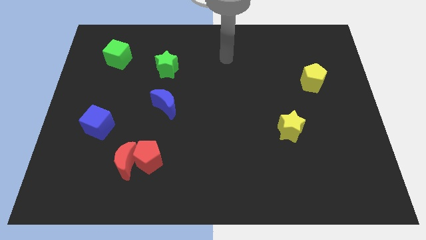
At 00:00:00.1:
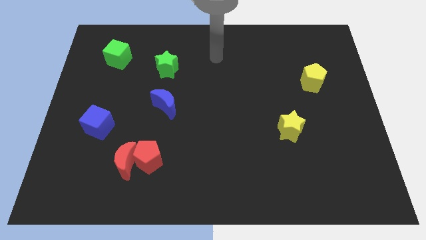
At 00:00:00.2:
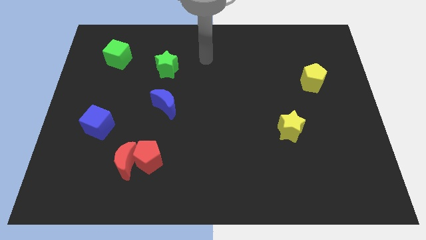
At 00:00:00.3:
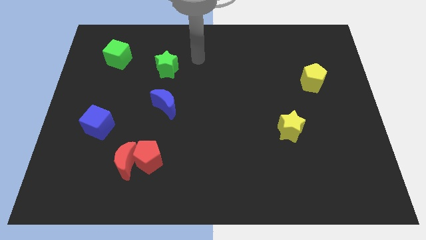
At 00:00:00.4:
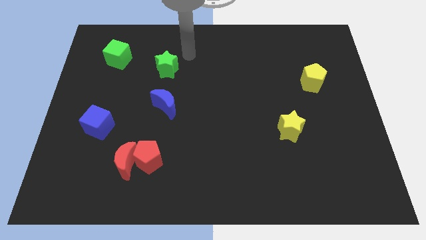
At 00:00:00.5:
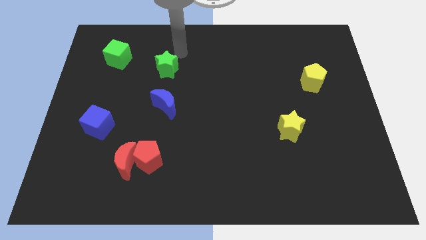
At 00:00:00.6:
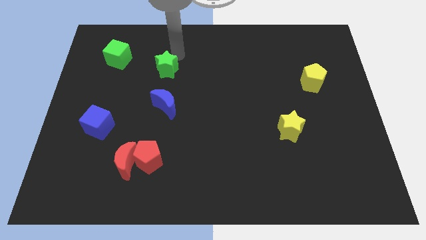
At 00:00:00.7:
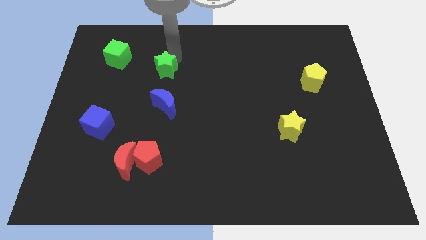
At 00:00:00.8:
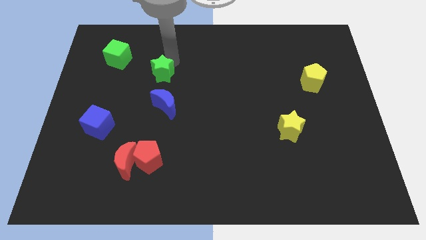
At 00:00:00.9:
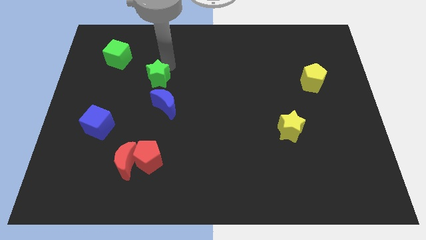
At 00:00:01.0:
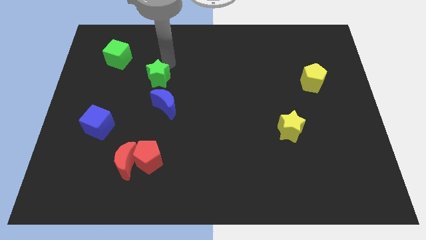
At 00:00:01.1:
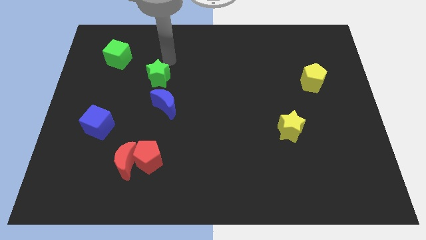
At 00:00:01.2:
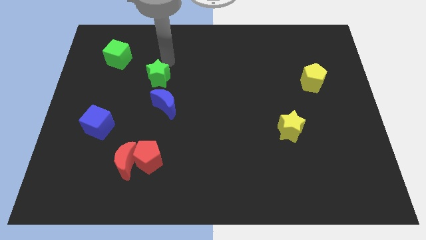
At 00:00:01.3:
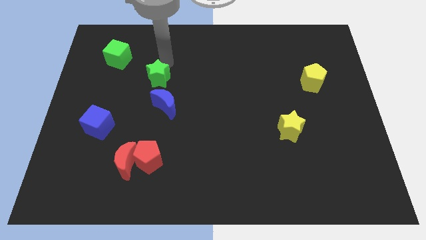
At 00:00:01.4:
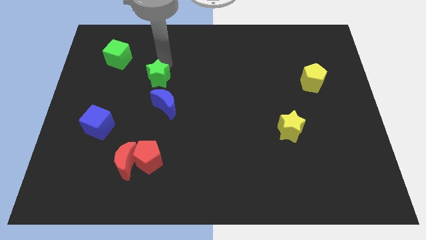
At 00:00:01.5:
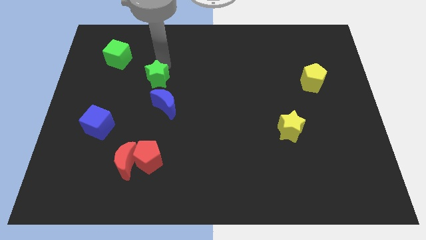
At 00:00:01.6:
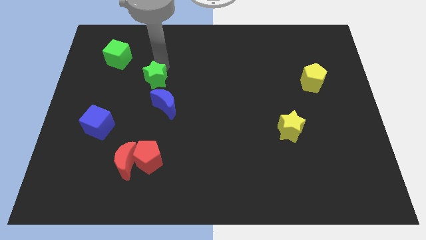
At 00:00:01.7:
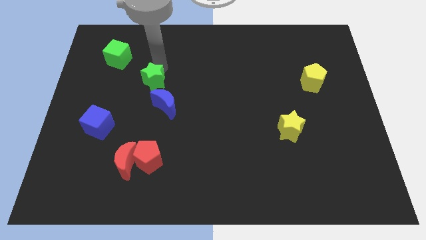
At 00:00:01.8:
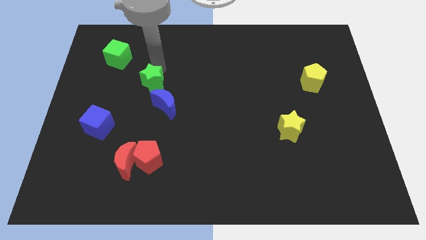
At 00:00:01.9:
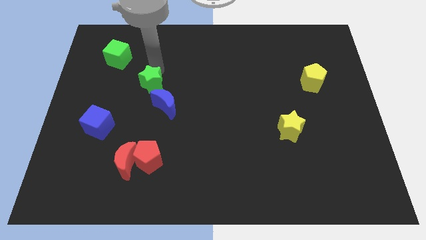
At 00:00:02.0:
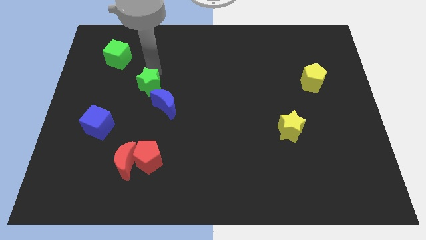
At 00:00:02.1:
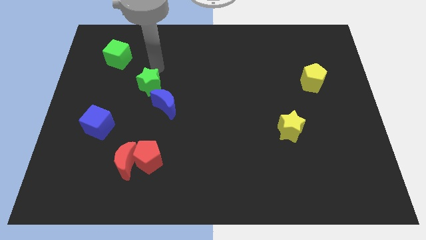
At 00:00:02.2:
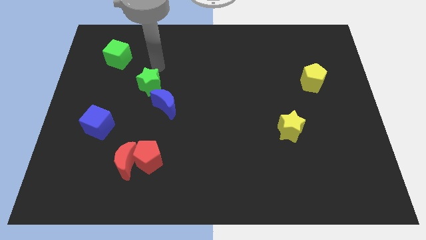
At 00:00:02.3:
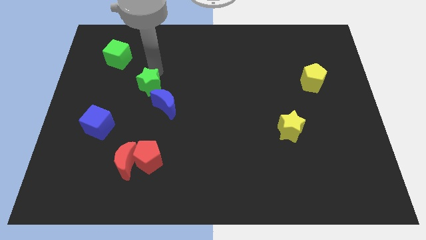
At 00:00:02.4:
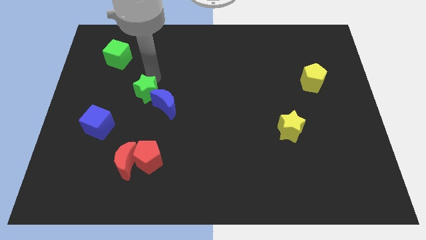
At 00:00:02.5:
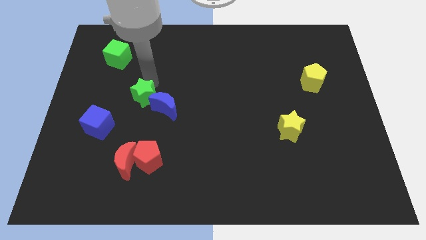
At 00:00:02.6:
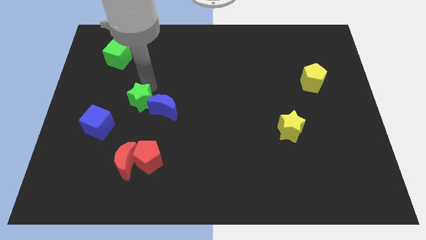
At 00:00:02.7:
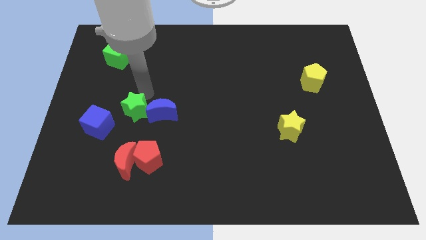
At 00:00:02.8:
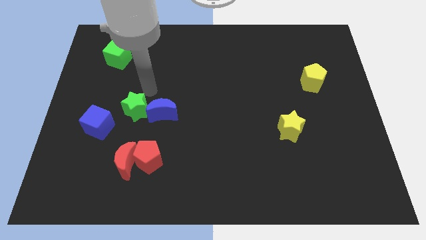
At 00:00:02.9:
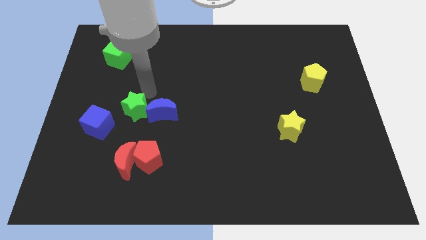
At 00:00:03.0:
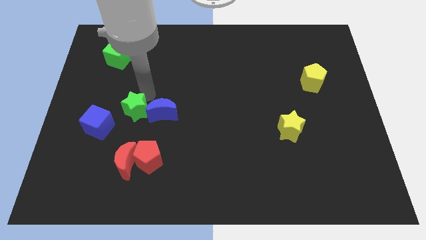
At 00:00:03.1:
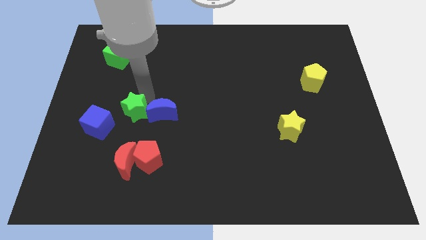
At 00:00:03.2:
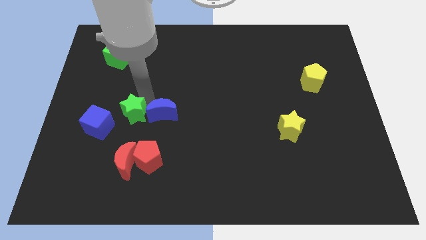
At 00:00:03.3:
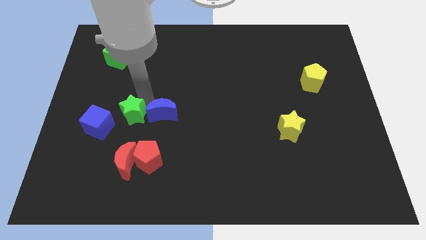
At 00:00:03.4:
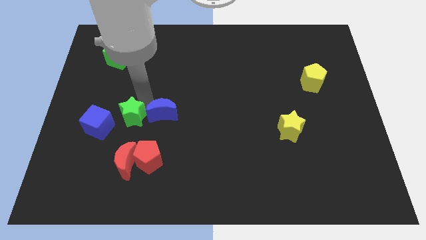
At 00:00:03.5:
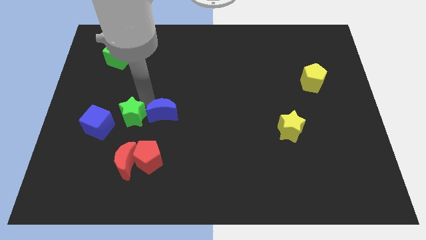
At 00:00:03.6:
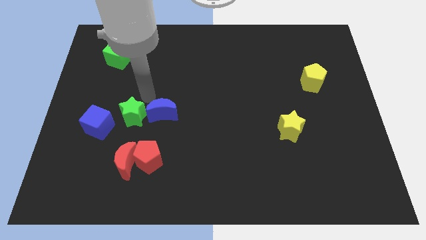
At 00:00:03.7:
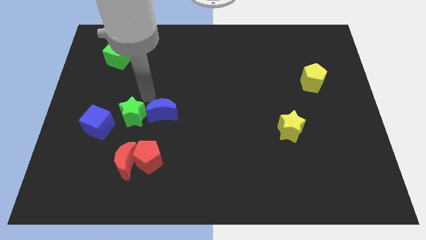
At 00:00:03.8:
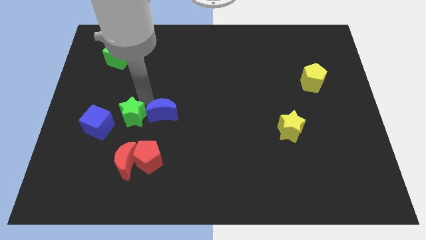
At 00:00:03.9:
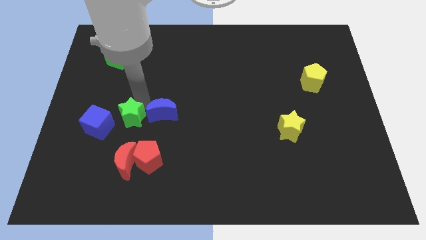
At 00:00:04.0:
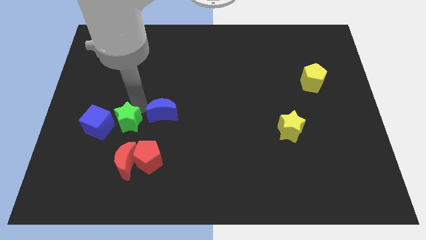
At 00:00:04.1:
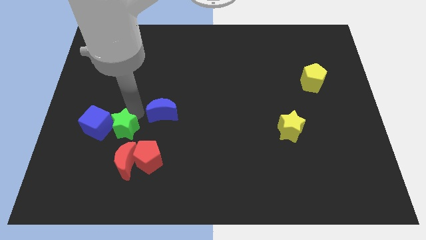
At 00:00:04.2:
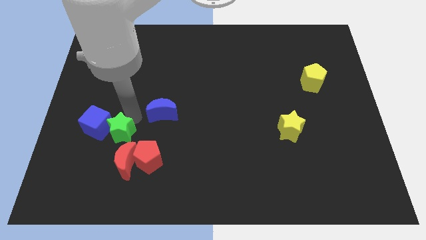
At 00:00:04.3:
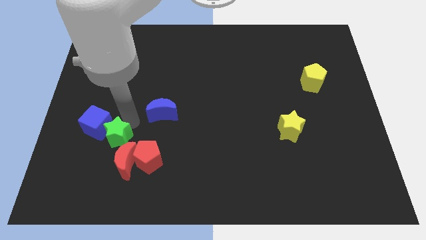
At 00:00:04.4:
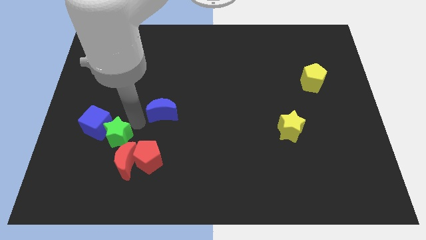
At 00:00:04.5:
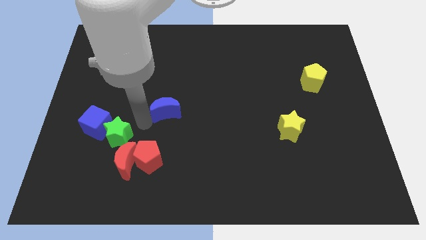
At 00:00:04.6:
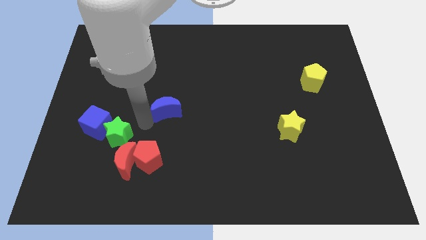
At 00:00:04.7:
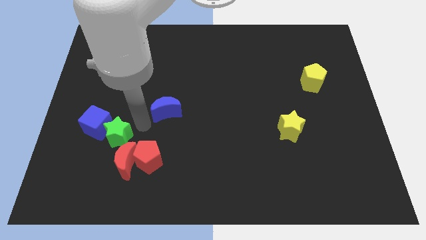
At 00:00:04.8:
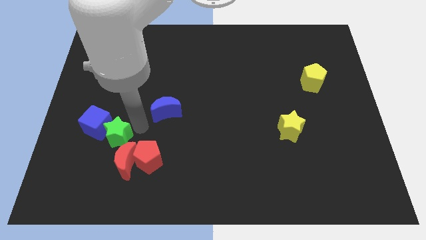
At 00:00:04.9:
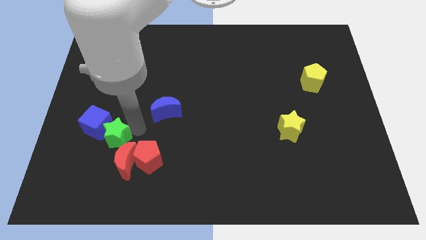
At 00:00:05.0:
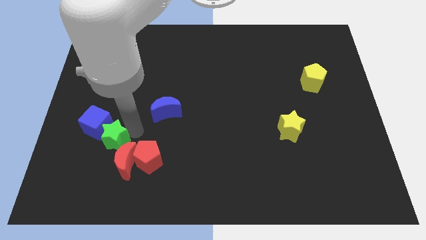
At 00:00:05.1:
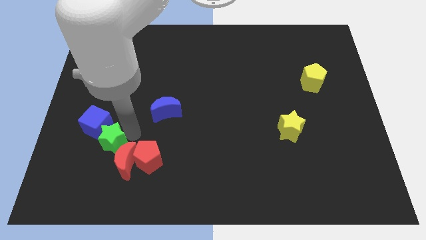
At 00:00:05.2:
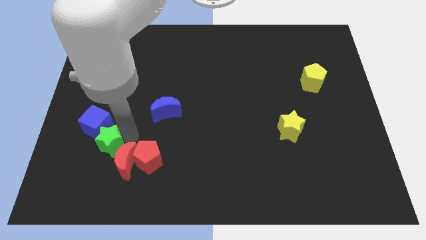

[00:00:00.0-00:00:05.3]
slide the green star left of the red moon

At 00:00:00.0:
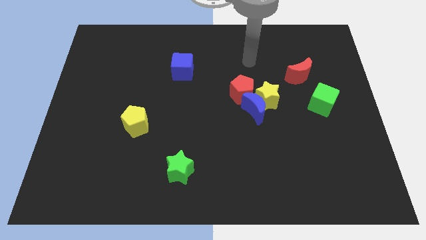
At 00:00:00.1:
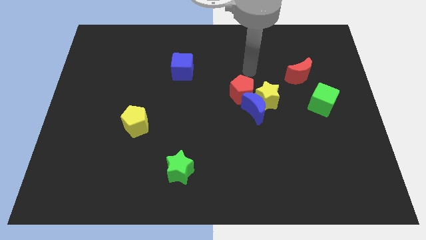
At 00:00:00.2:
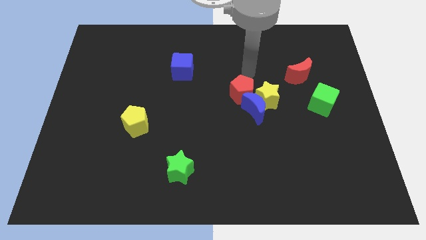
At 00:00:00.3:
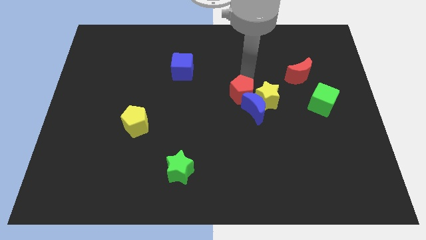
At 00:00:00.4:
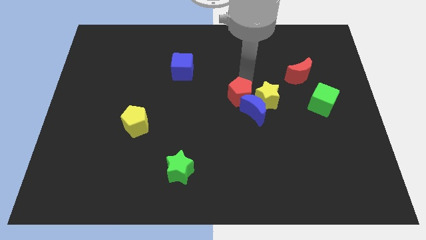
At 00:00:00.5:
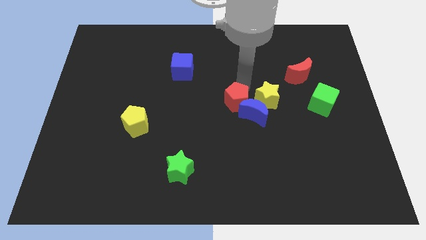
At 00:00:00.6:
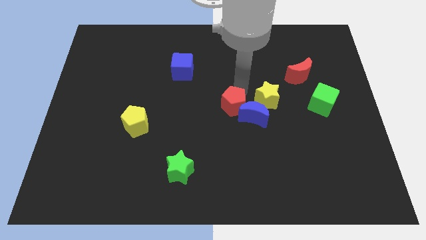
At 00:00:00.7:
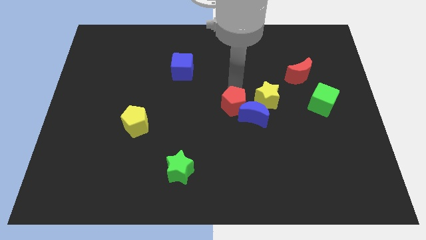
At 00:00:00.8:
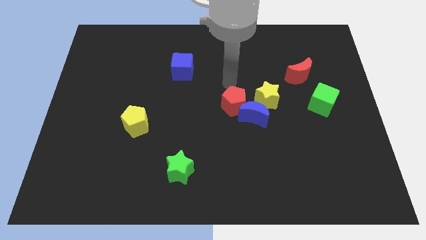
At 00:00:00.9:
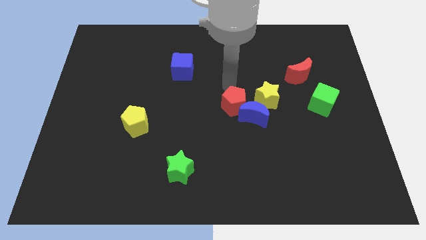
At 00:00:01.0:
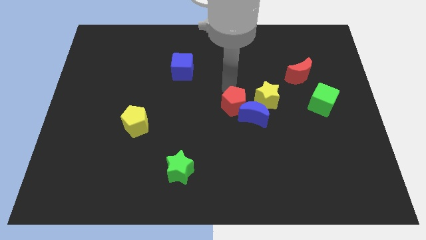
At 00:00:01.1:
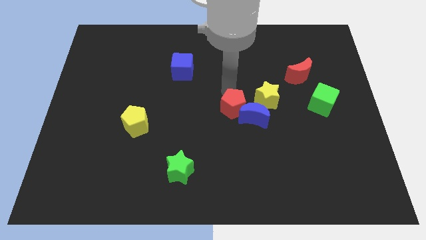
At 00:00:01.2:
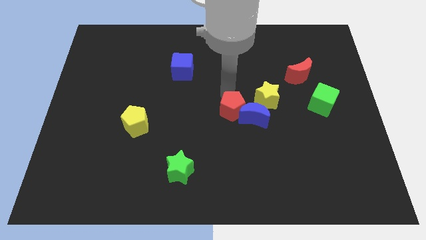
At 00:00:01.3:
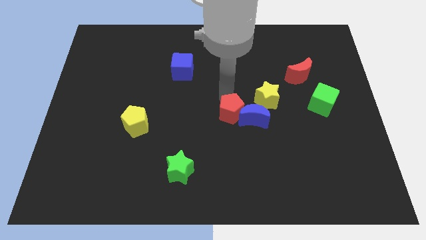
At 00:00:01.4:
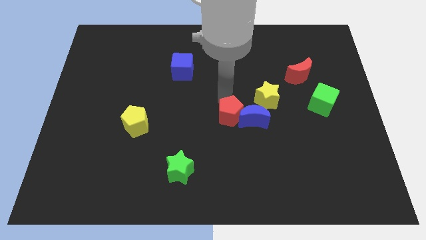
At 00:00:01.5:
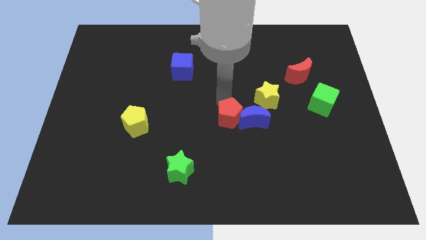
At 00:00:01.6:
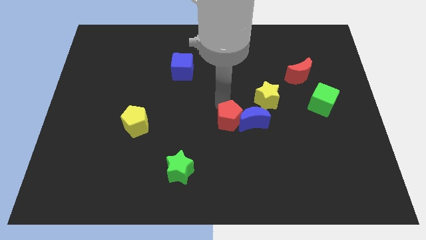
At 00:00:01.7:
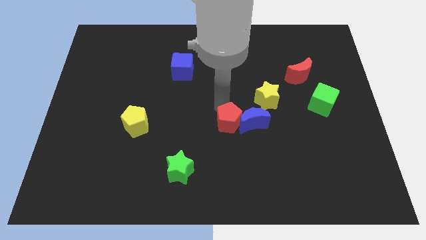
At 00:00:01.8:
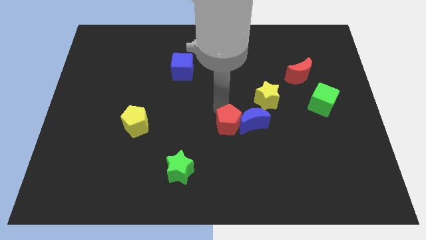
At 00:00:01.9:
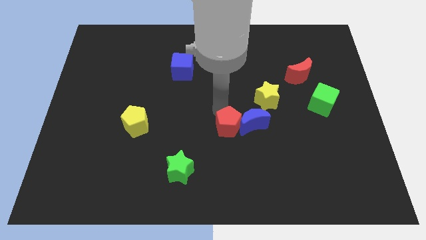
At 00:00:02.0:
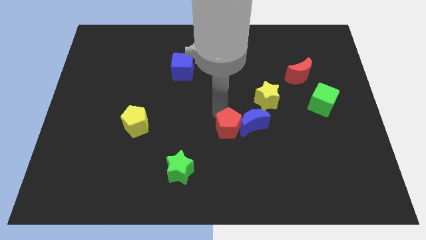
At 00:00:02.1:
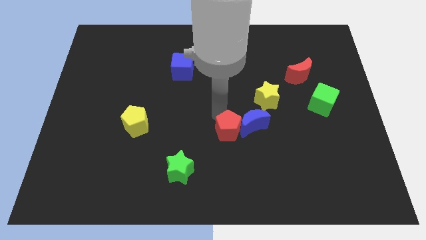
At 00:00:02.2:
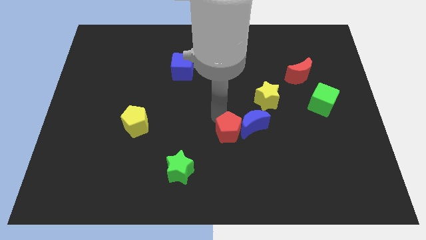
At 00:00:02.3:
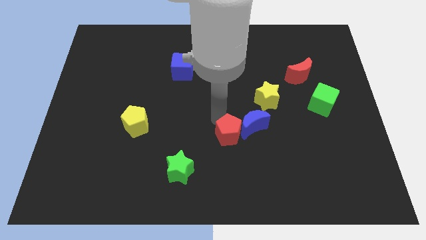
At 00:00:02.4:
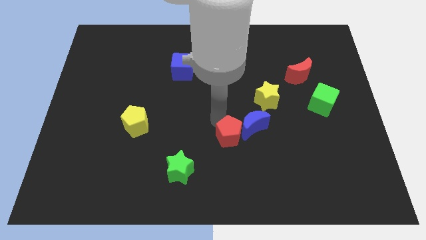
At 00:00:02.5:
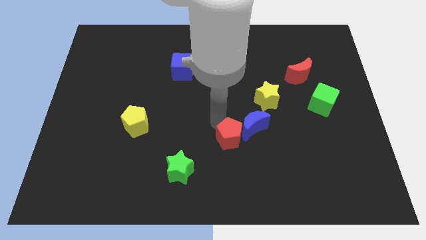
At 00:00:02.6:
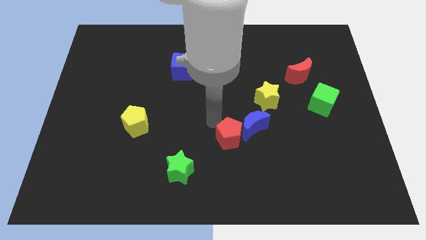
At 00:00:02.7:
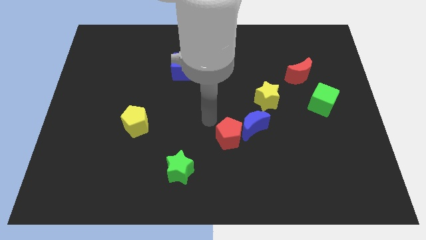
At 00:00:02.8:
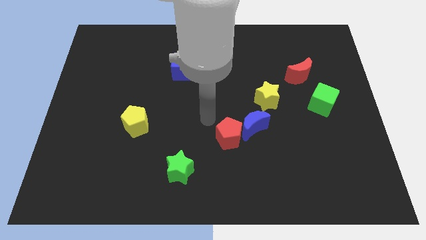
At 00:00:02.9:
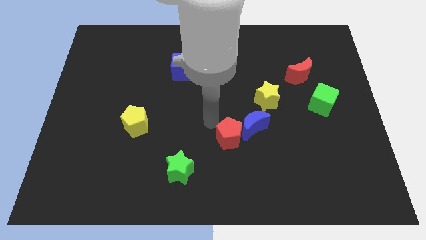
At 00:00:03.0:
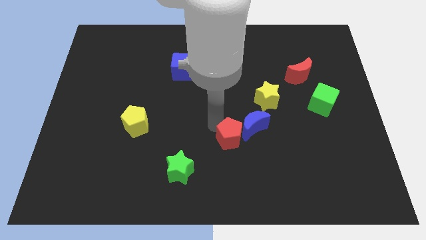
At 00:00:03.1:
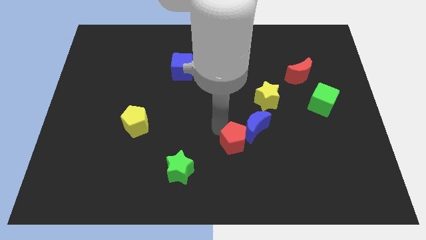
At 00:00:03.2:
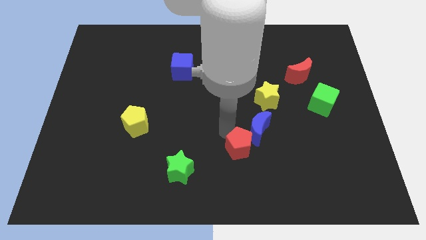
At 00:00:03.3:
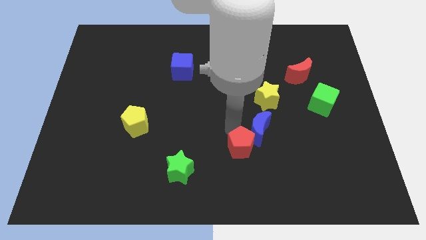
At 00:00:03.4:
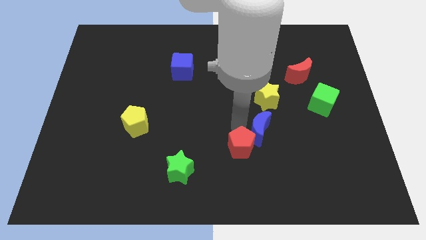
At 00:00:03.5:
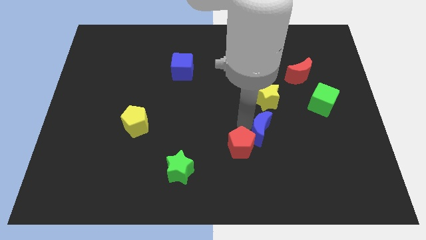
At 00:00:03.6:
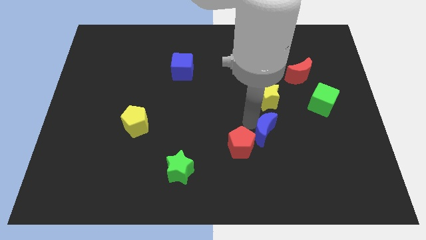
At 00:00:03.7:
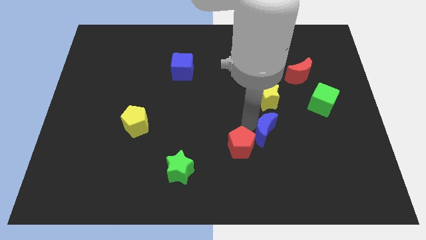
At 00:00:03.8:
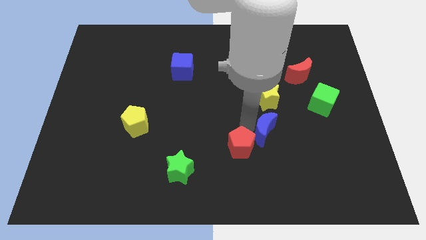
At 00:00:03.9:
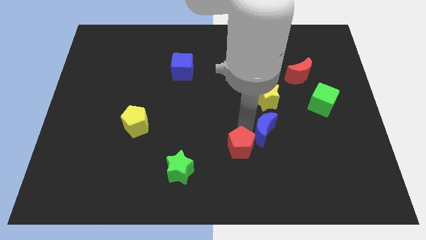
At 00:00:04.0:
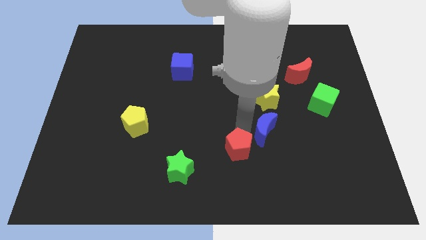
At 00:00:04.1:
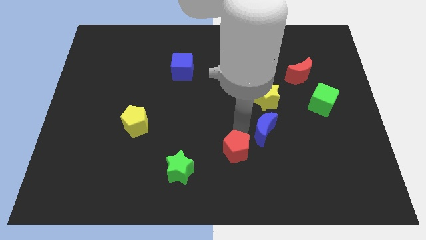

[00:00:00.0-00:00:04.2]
move the red pentagon right of the green star
